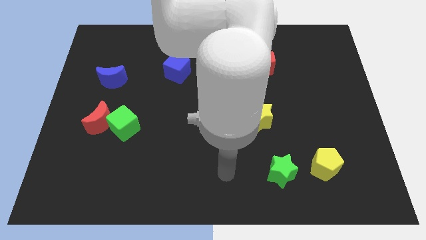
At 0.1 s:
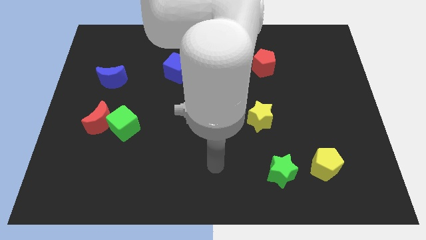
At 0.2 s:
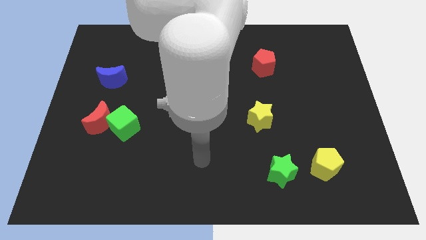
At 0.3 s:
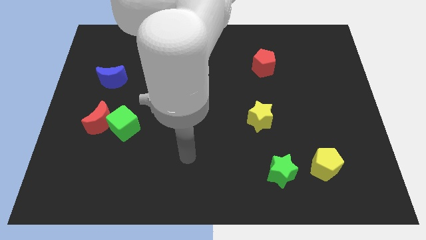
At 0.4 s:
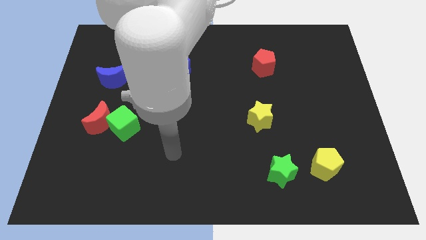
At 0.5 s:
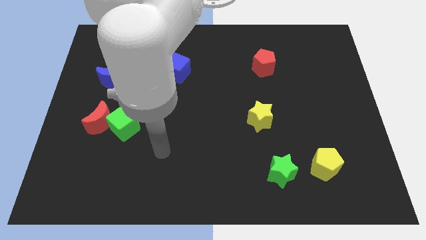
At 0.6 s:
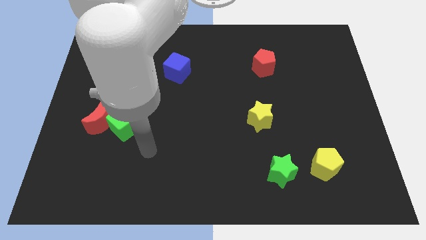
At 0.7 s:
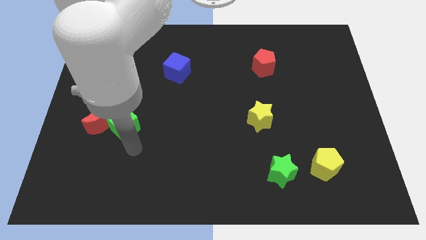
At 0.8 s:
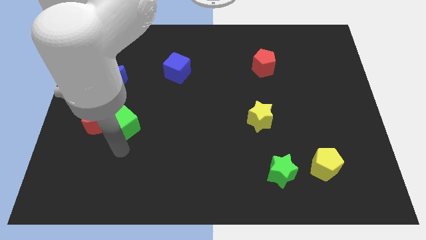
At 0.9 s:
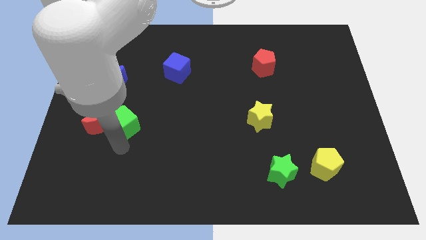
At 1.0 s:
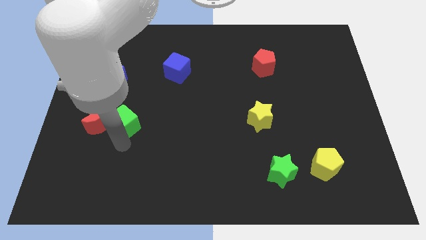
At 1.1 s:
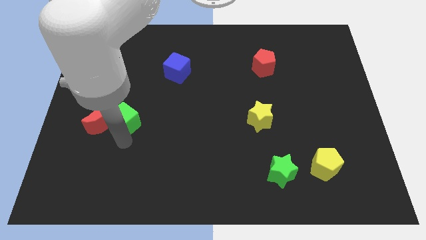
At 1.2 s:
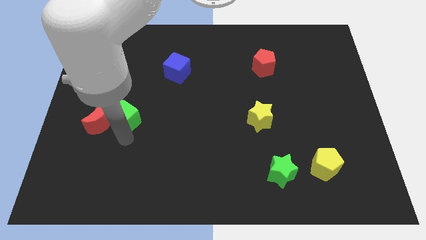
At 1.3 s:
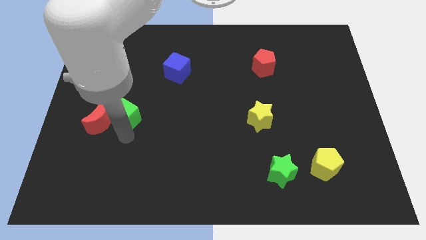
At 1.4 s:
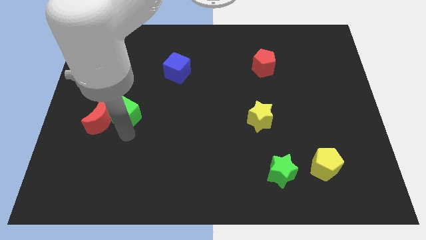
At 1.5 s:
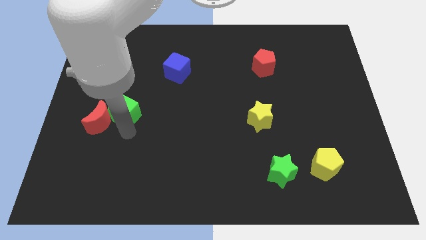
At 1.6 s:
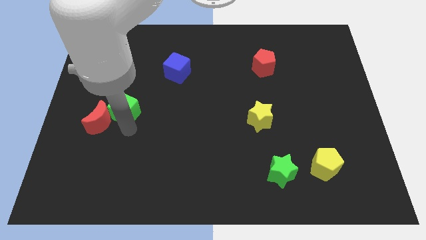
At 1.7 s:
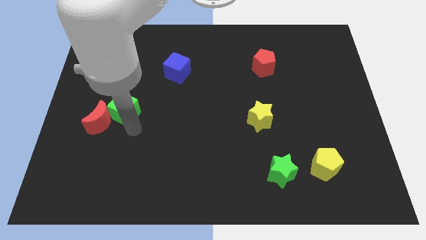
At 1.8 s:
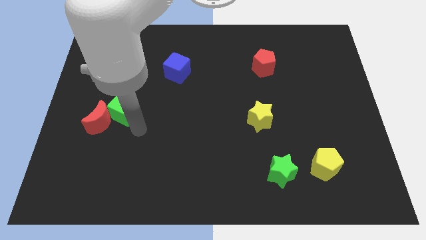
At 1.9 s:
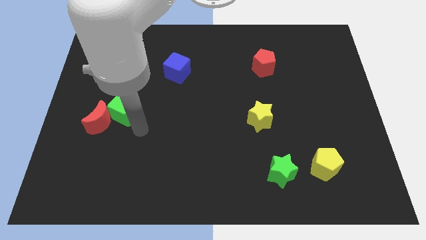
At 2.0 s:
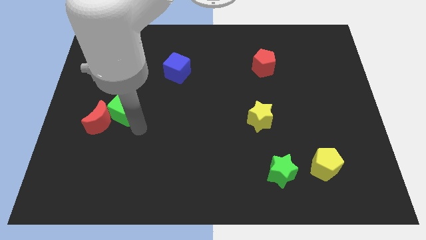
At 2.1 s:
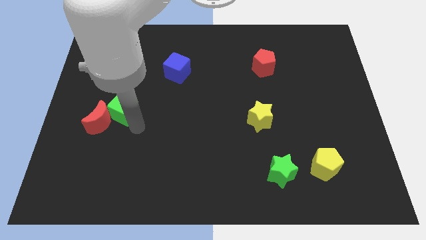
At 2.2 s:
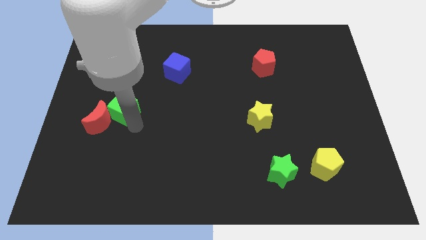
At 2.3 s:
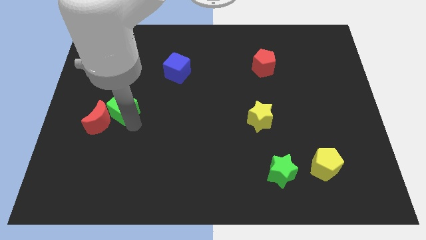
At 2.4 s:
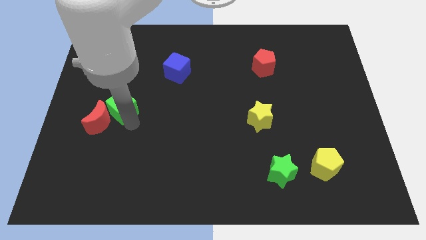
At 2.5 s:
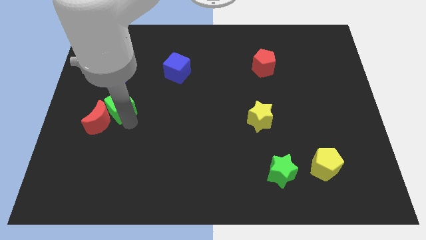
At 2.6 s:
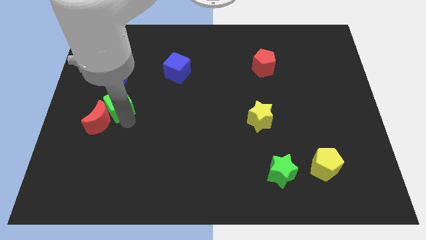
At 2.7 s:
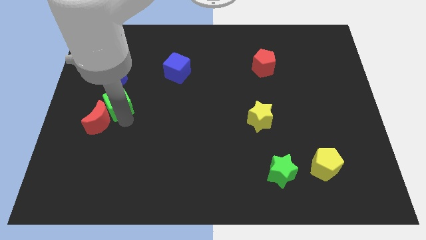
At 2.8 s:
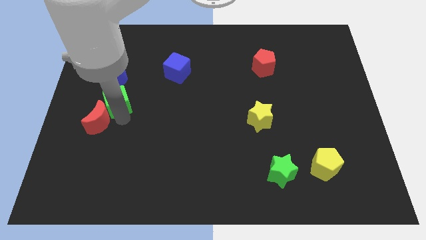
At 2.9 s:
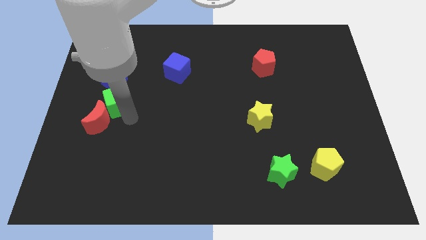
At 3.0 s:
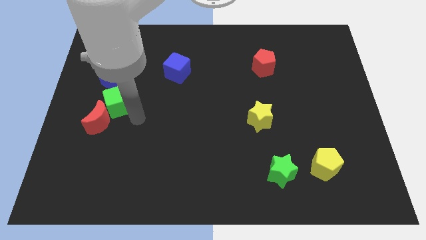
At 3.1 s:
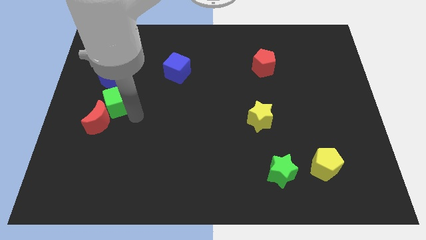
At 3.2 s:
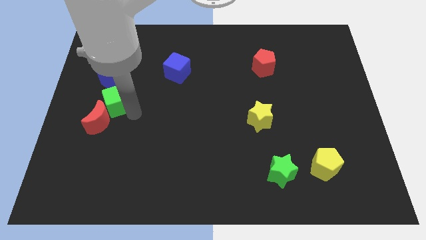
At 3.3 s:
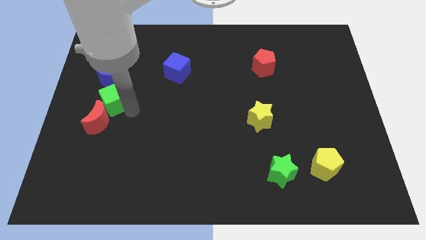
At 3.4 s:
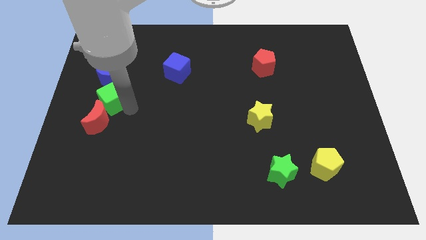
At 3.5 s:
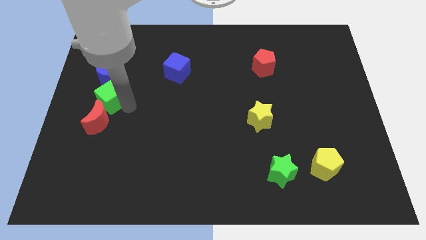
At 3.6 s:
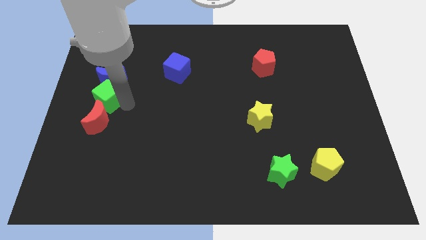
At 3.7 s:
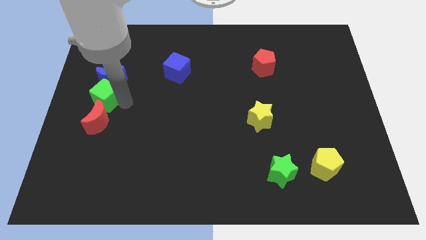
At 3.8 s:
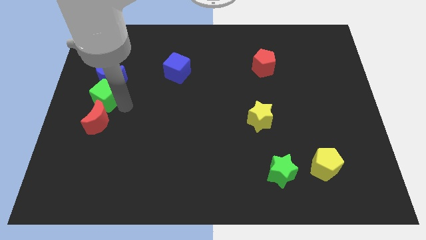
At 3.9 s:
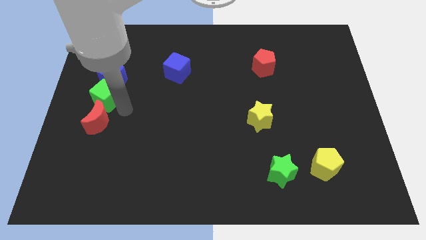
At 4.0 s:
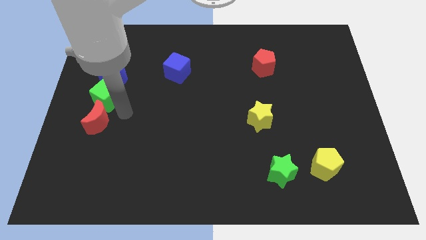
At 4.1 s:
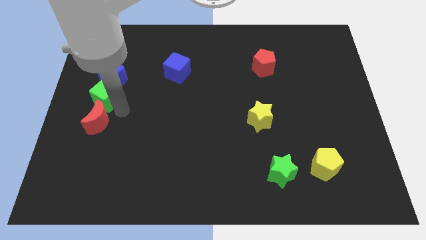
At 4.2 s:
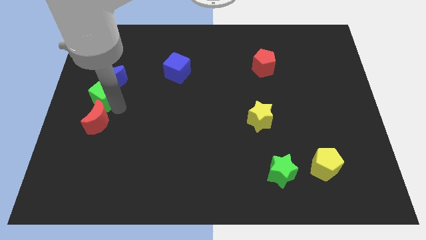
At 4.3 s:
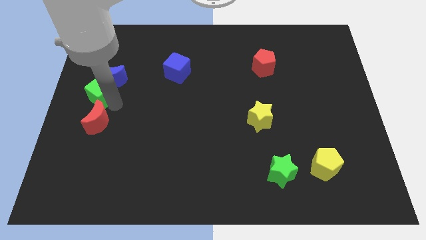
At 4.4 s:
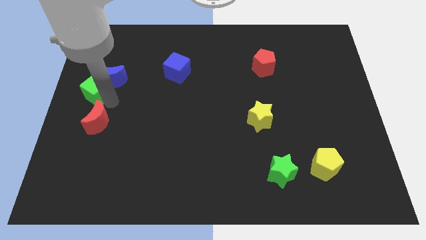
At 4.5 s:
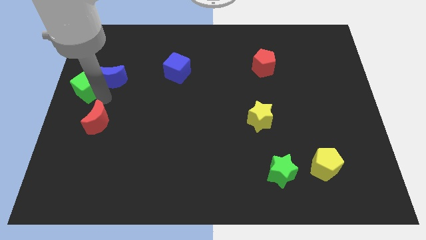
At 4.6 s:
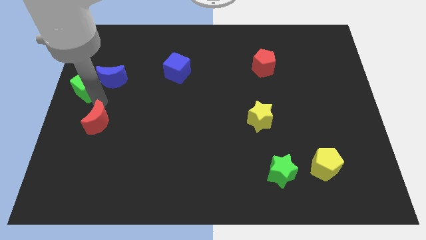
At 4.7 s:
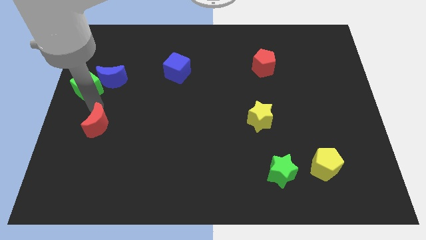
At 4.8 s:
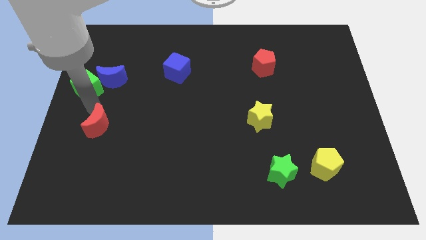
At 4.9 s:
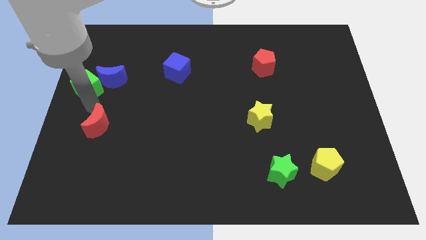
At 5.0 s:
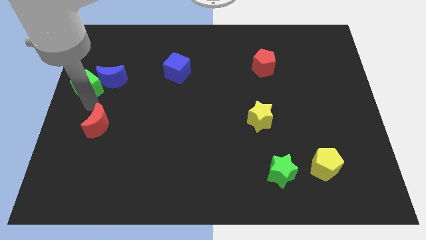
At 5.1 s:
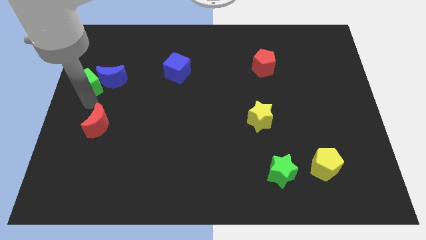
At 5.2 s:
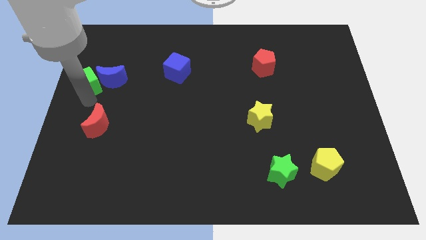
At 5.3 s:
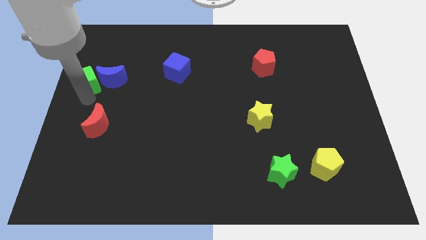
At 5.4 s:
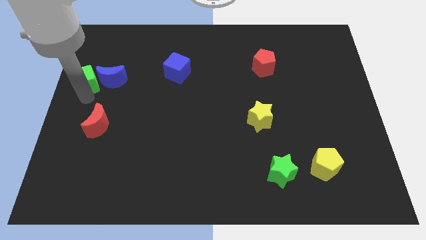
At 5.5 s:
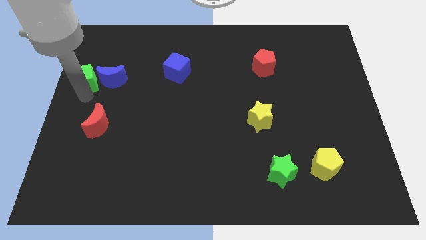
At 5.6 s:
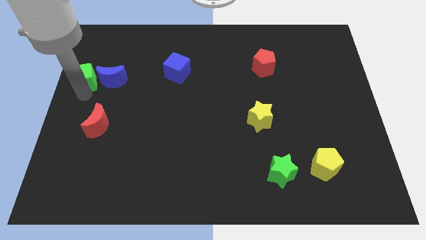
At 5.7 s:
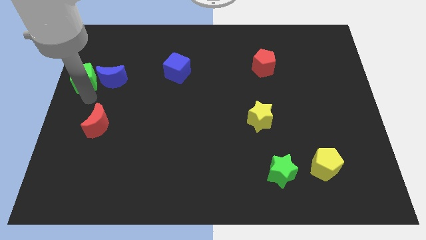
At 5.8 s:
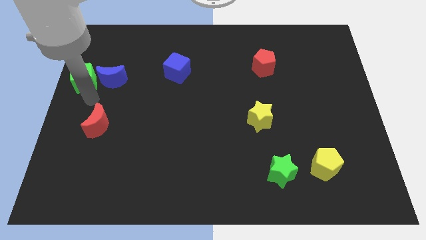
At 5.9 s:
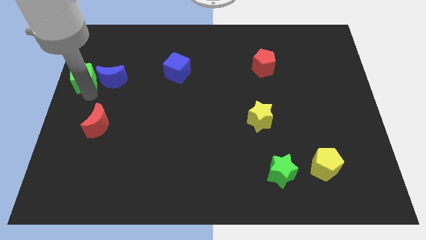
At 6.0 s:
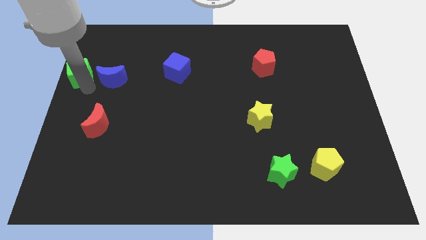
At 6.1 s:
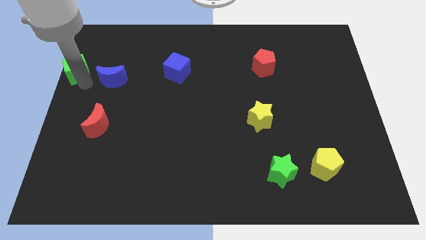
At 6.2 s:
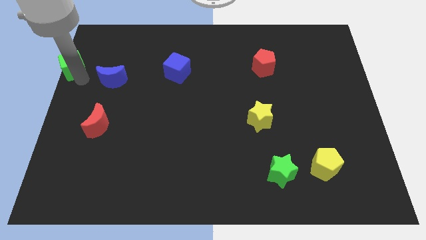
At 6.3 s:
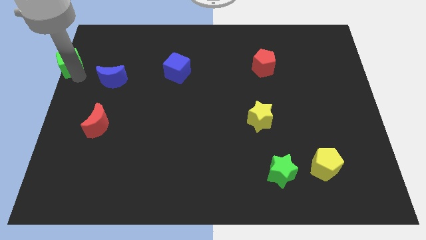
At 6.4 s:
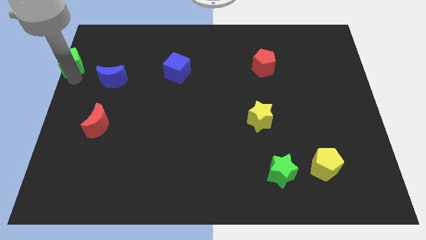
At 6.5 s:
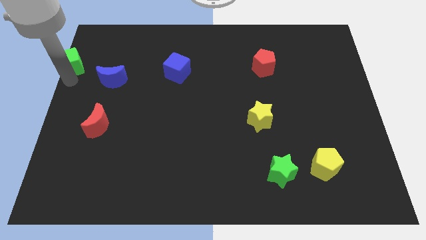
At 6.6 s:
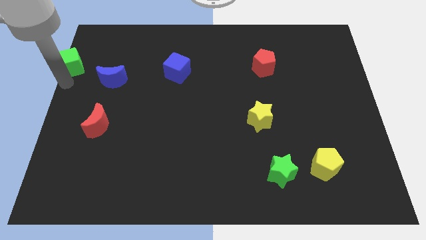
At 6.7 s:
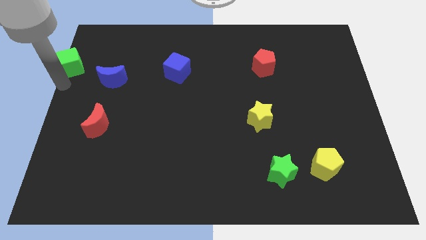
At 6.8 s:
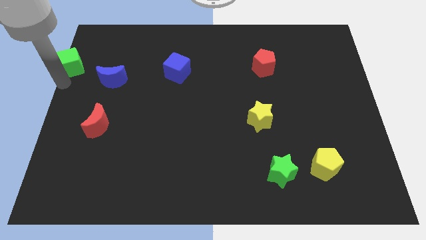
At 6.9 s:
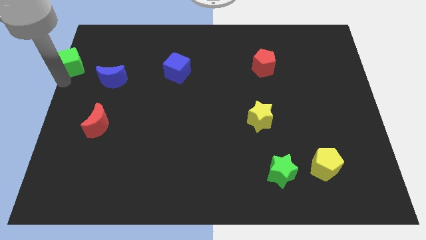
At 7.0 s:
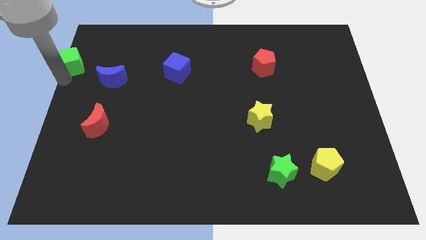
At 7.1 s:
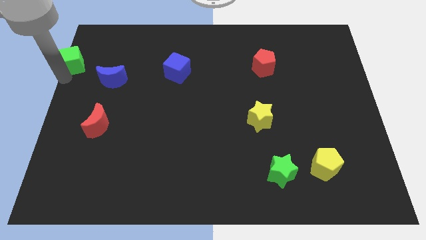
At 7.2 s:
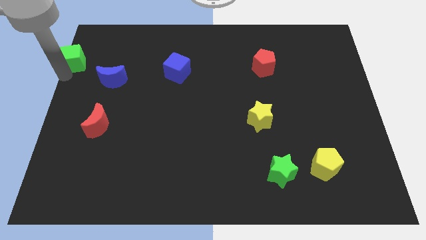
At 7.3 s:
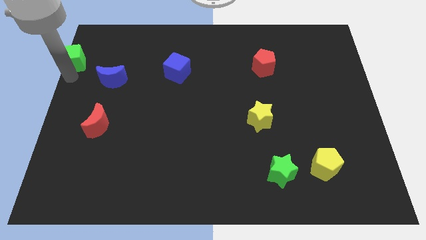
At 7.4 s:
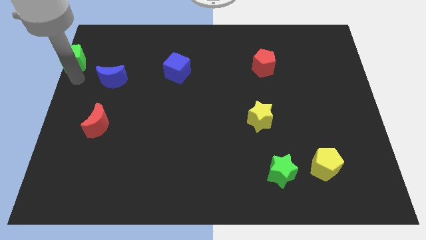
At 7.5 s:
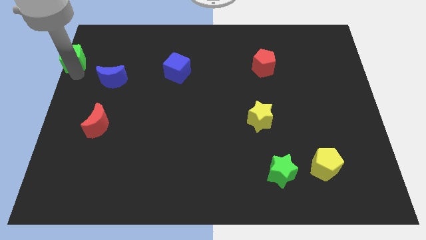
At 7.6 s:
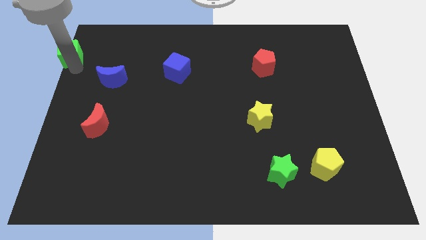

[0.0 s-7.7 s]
push the green cube to the top left corner
